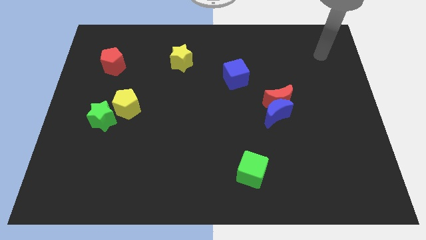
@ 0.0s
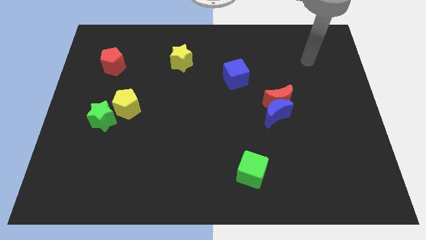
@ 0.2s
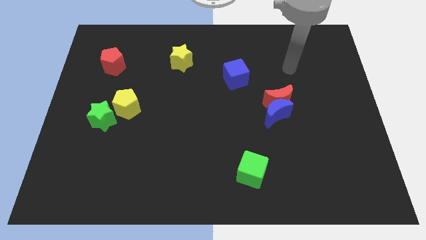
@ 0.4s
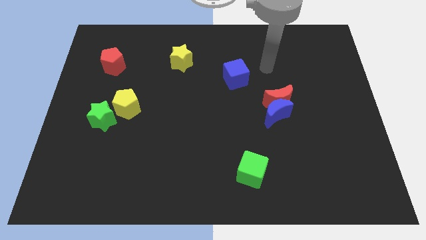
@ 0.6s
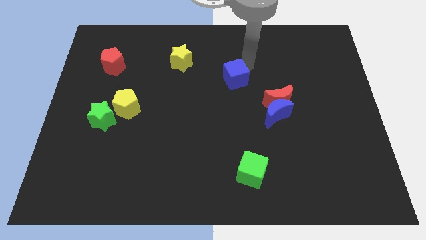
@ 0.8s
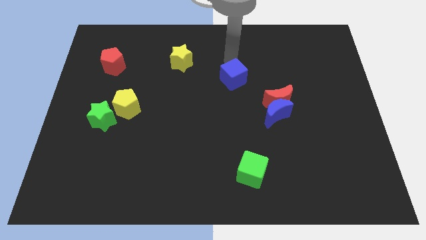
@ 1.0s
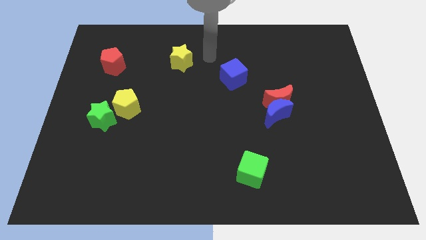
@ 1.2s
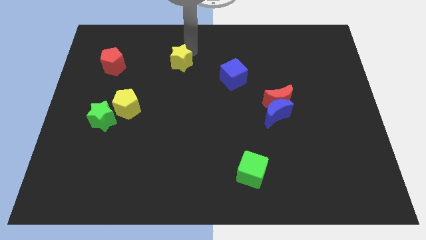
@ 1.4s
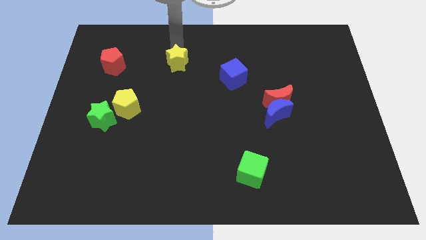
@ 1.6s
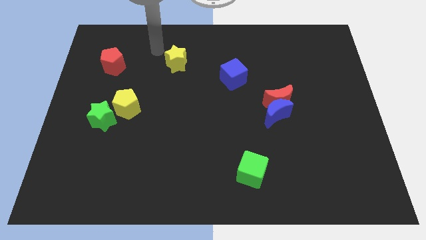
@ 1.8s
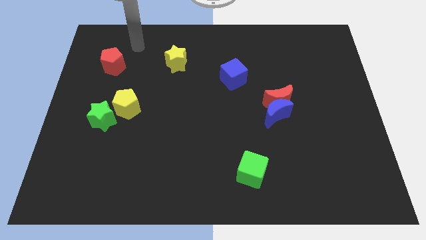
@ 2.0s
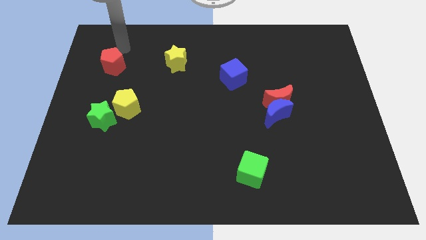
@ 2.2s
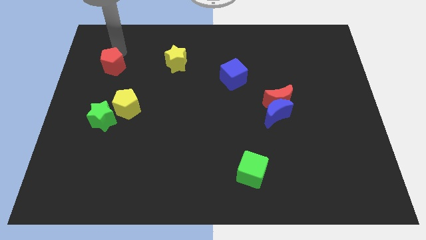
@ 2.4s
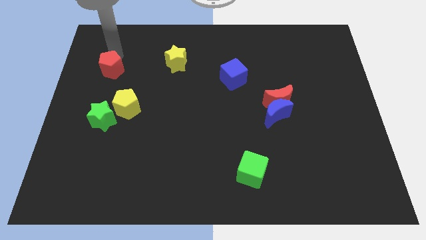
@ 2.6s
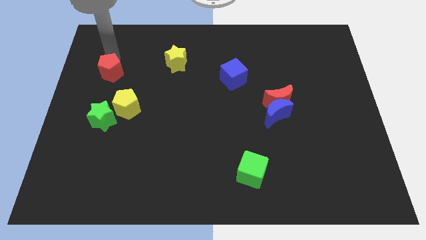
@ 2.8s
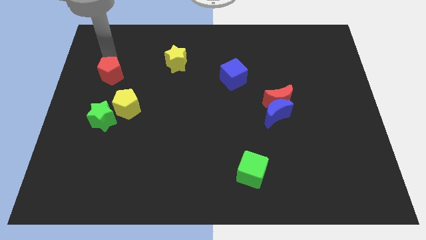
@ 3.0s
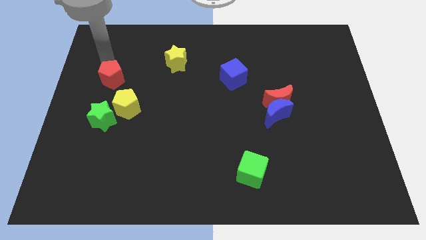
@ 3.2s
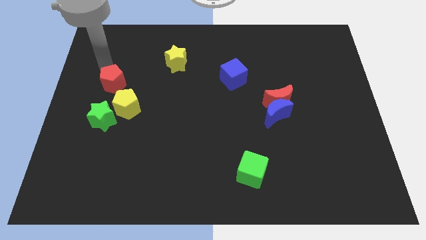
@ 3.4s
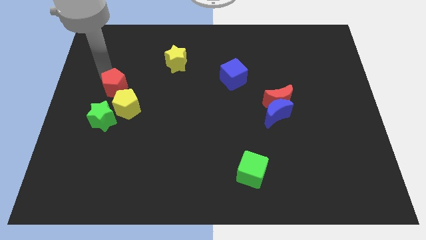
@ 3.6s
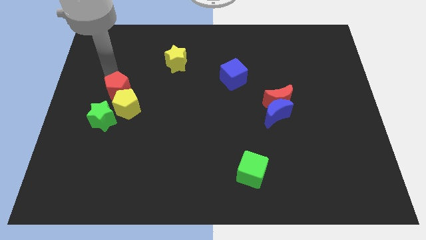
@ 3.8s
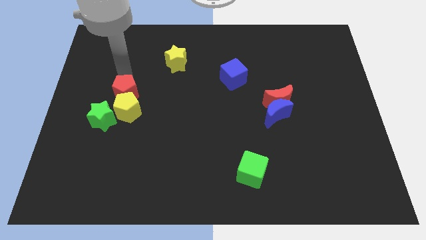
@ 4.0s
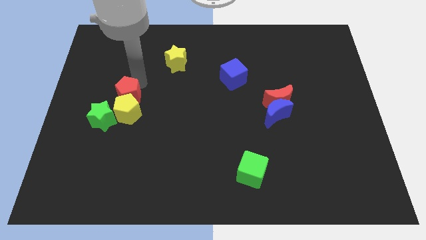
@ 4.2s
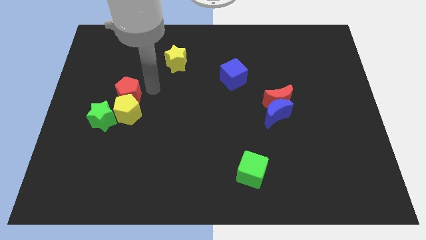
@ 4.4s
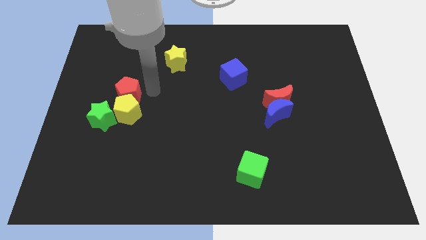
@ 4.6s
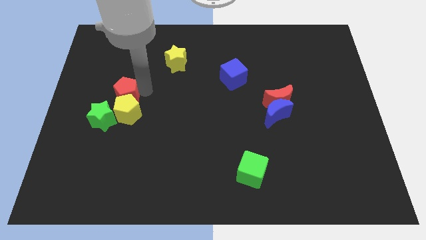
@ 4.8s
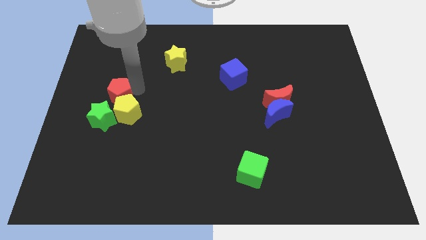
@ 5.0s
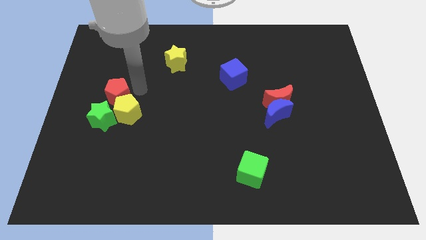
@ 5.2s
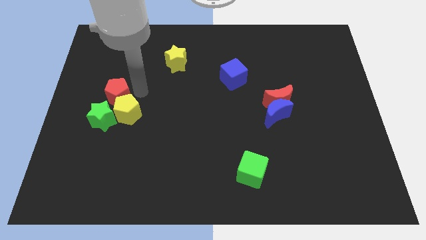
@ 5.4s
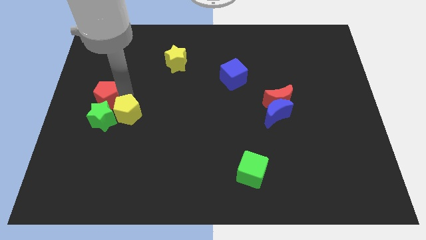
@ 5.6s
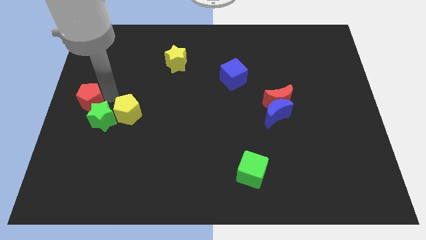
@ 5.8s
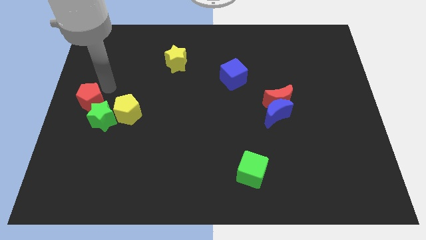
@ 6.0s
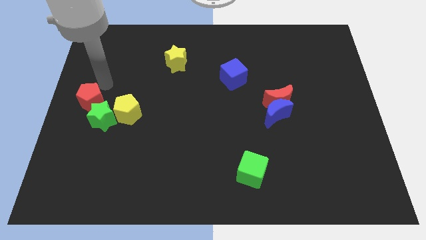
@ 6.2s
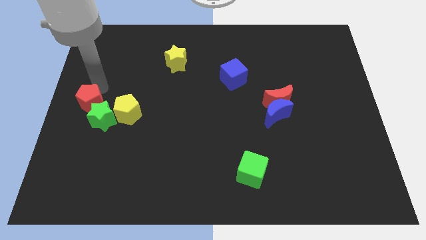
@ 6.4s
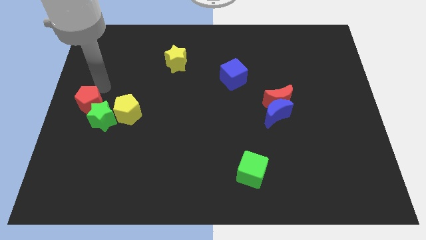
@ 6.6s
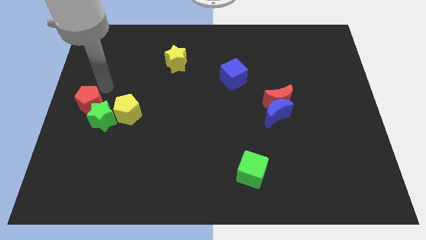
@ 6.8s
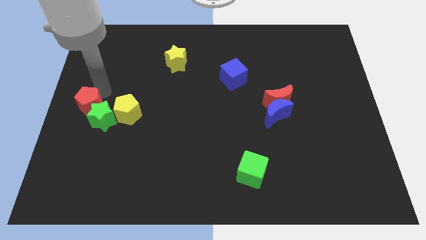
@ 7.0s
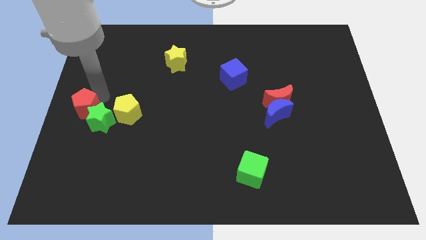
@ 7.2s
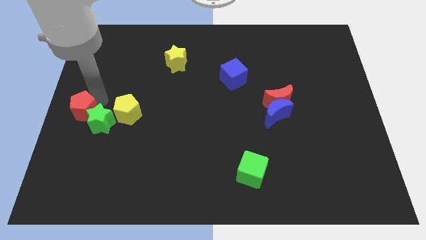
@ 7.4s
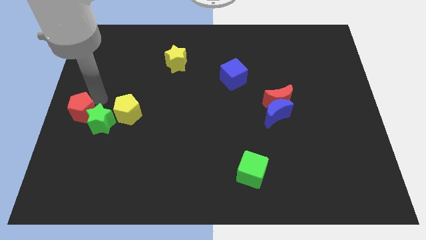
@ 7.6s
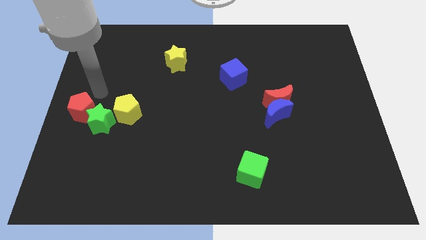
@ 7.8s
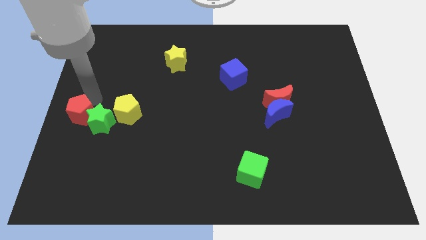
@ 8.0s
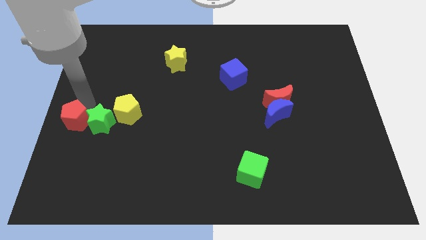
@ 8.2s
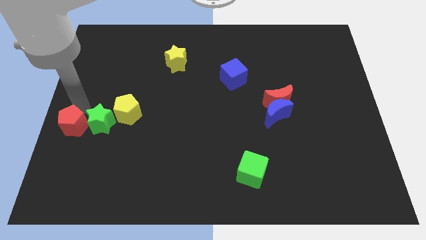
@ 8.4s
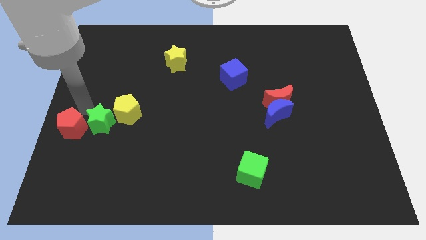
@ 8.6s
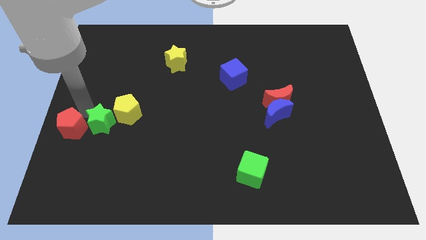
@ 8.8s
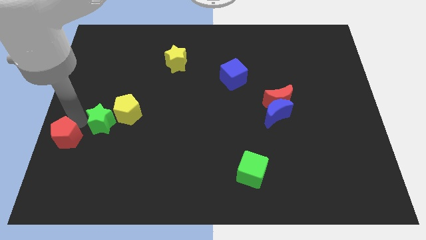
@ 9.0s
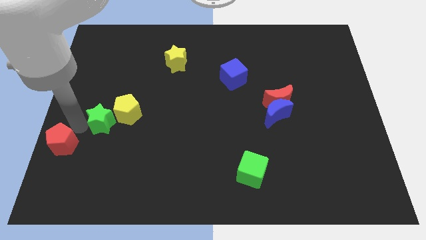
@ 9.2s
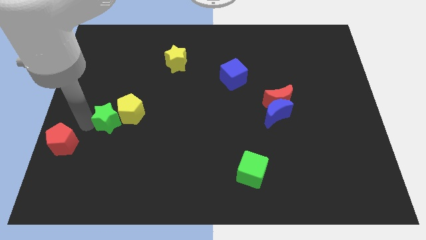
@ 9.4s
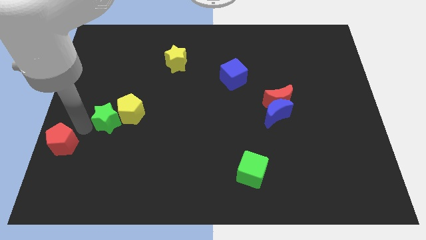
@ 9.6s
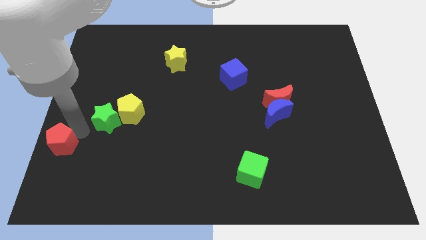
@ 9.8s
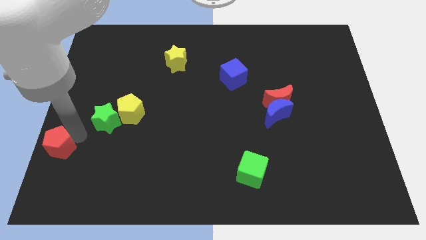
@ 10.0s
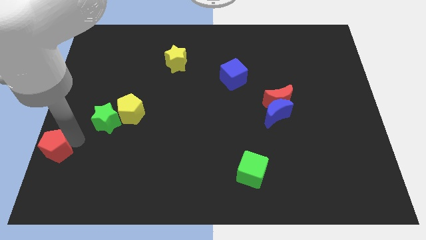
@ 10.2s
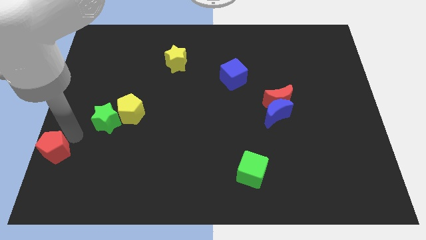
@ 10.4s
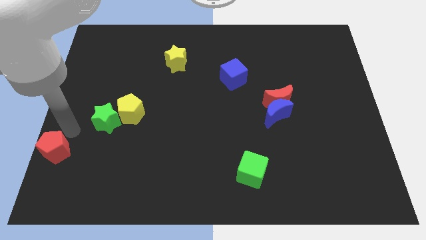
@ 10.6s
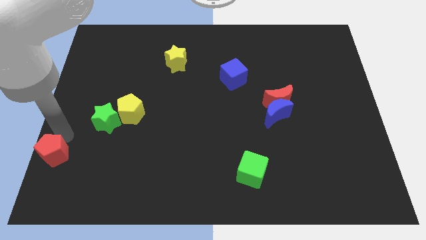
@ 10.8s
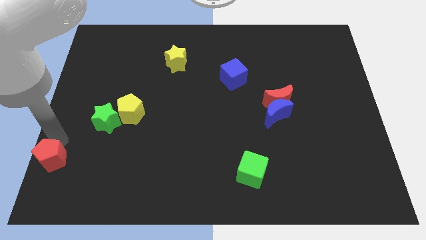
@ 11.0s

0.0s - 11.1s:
slide the red pentagon to the lower left corner

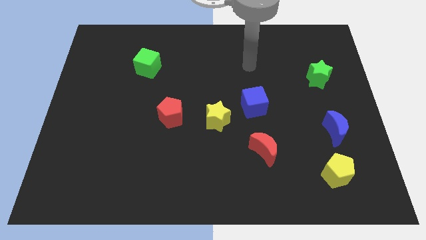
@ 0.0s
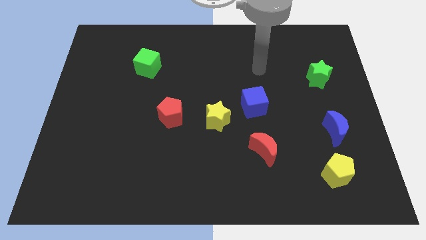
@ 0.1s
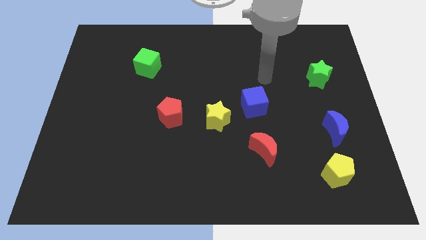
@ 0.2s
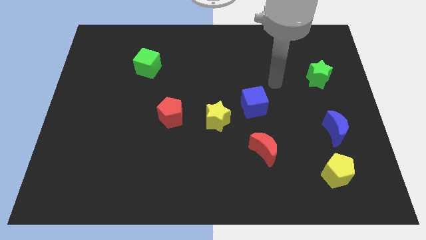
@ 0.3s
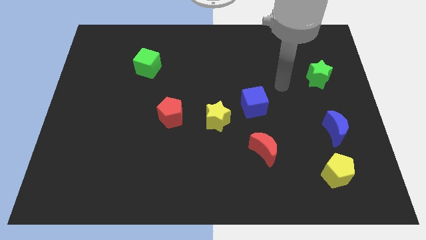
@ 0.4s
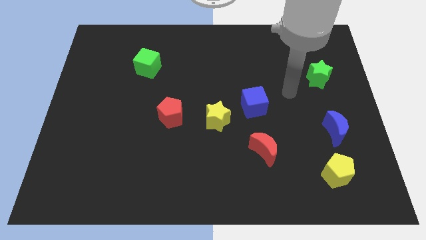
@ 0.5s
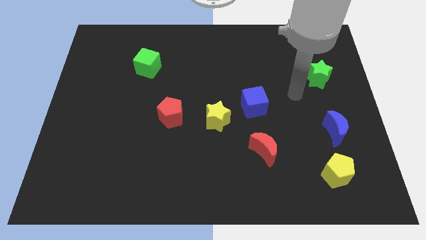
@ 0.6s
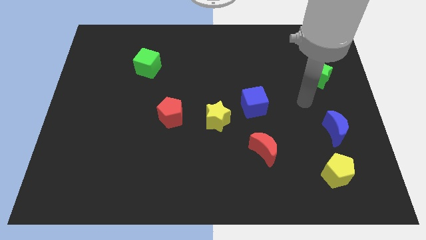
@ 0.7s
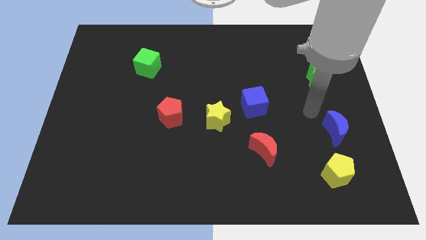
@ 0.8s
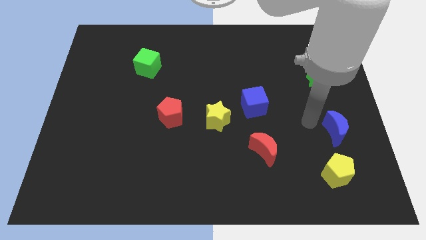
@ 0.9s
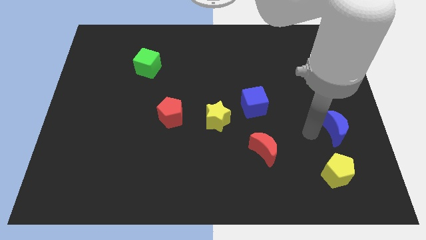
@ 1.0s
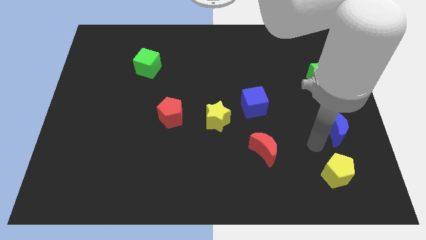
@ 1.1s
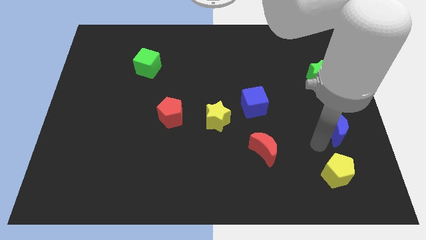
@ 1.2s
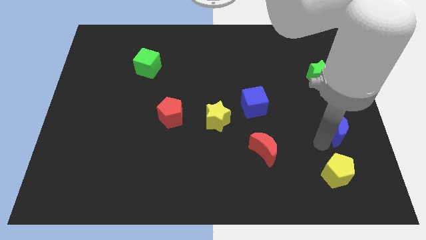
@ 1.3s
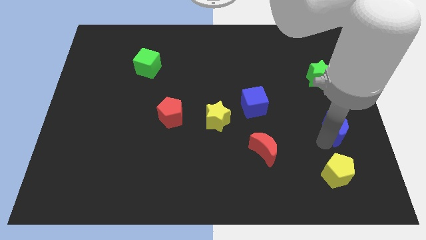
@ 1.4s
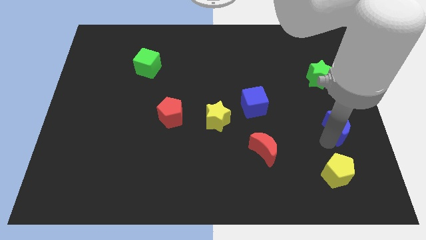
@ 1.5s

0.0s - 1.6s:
put the blue moon to the center right

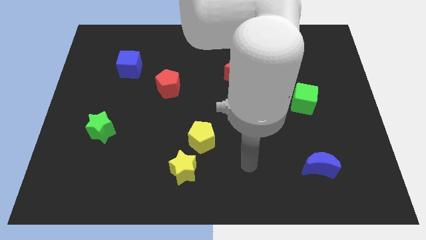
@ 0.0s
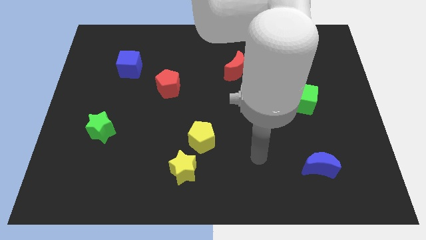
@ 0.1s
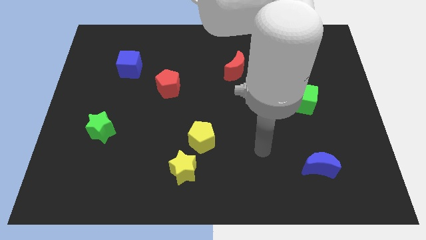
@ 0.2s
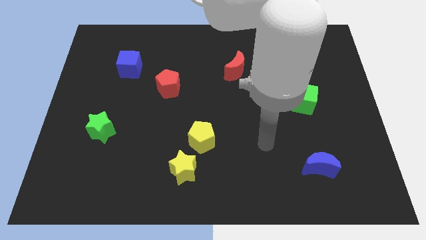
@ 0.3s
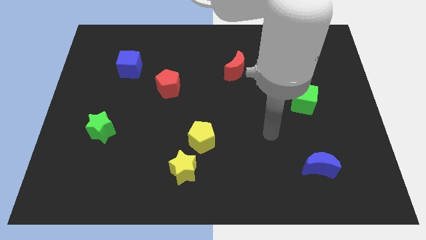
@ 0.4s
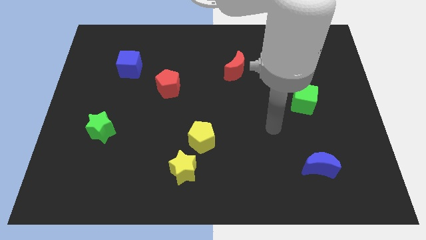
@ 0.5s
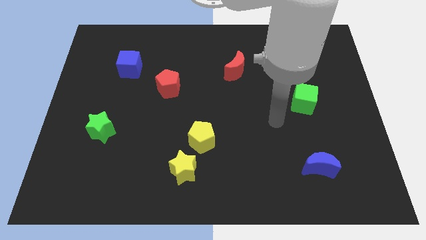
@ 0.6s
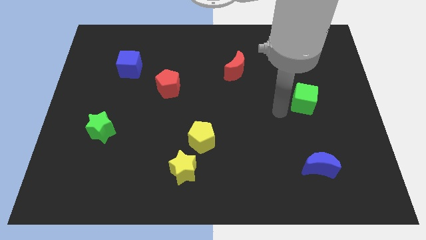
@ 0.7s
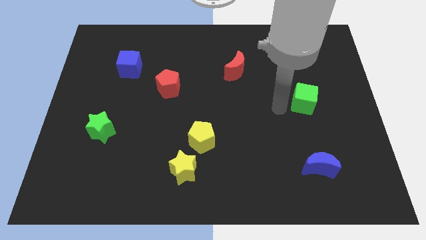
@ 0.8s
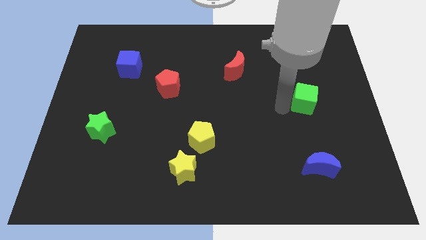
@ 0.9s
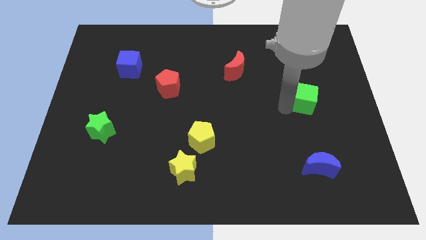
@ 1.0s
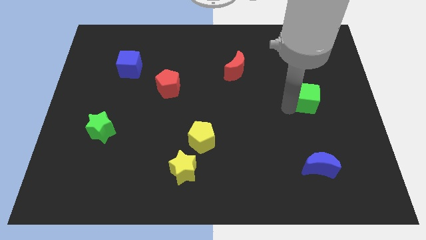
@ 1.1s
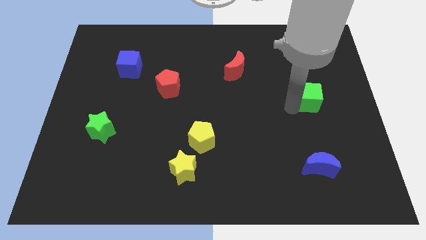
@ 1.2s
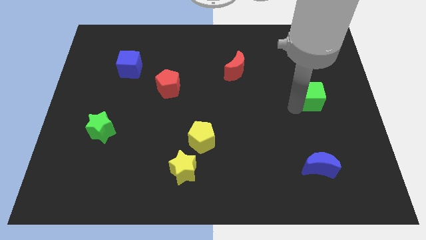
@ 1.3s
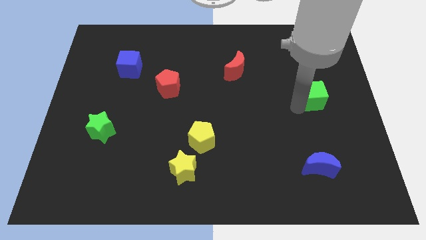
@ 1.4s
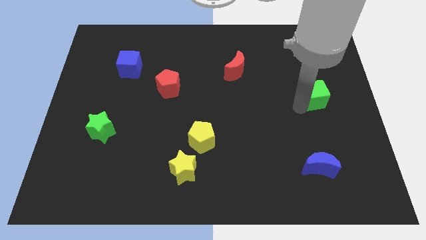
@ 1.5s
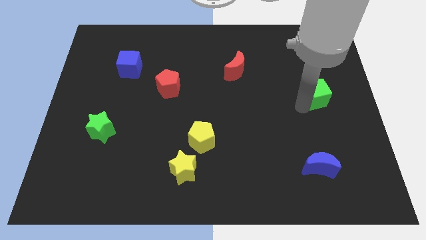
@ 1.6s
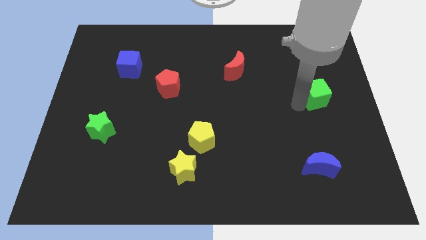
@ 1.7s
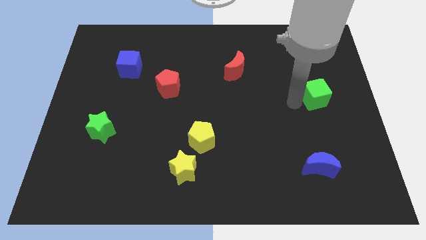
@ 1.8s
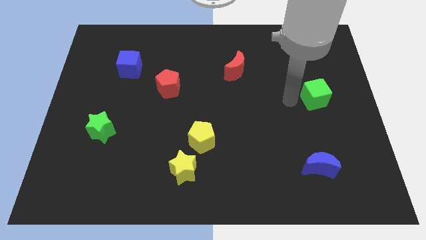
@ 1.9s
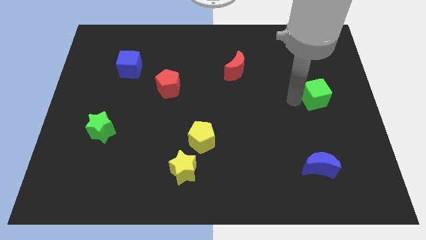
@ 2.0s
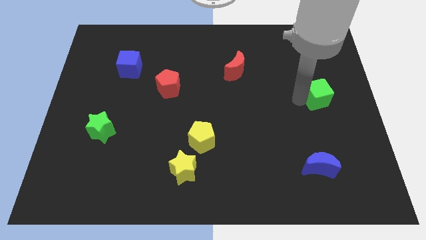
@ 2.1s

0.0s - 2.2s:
slide the green cube to the right side
